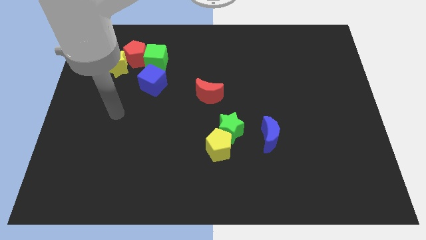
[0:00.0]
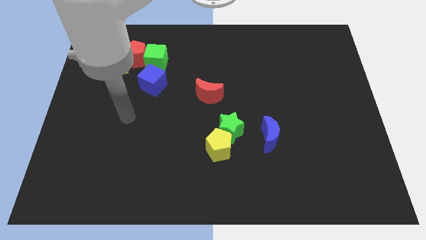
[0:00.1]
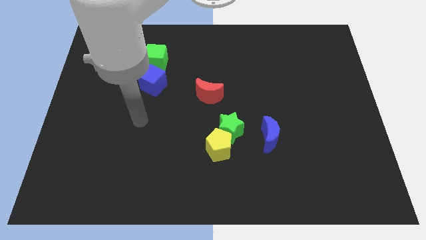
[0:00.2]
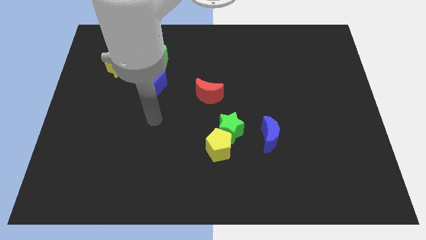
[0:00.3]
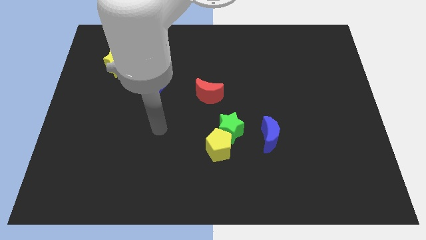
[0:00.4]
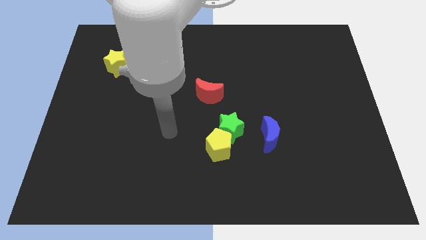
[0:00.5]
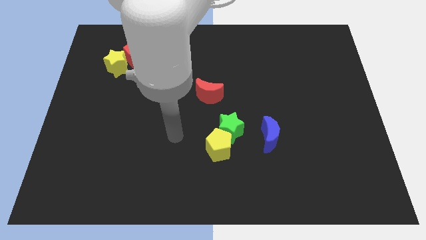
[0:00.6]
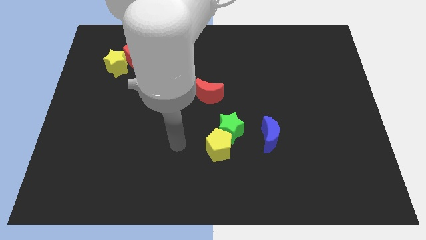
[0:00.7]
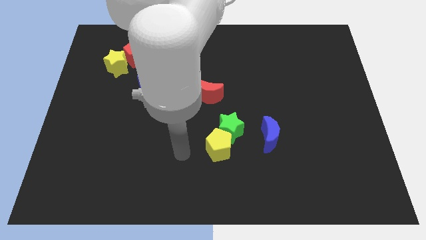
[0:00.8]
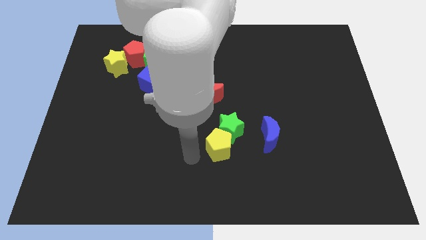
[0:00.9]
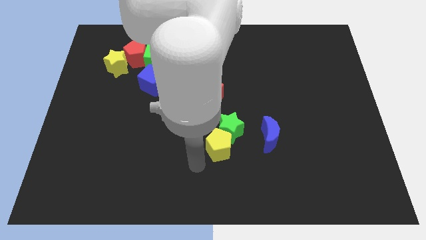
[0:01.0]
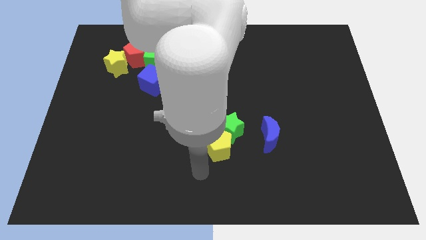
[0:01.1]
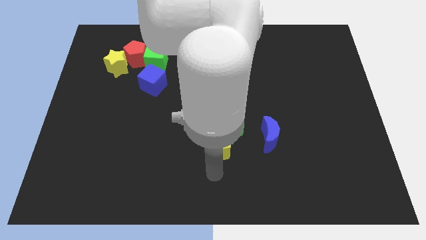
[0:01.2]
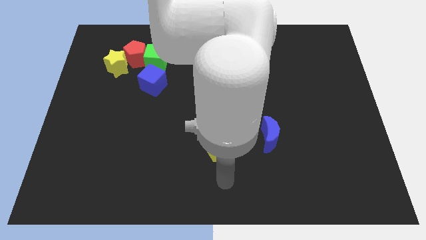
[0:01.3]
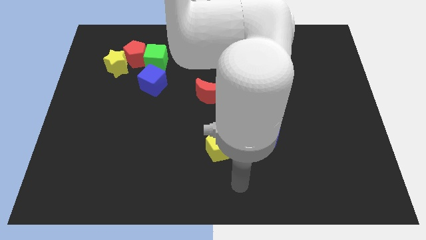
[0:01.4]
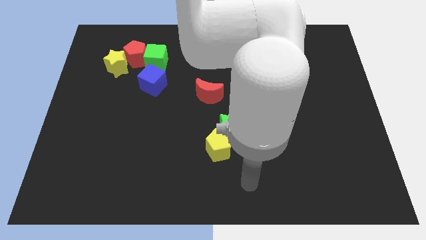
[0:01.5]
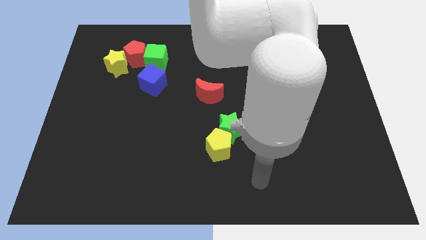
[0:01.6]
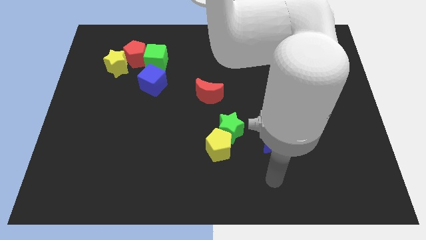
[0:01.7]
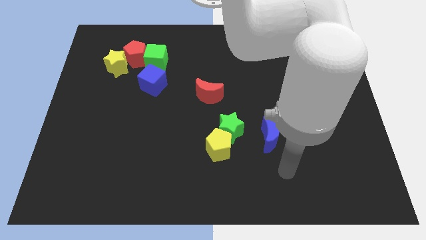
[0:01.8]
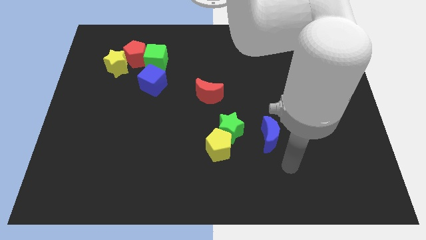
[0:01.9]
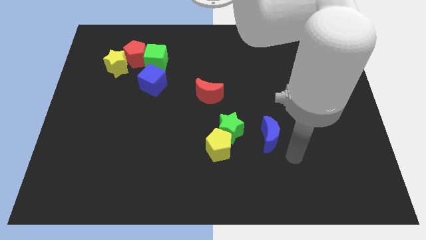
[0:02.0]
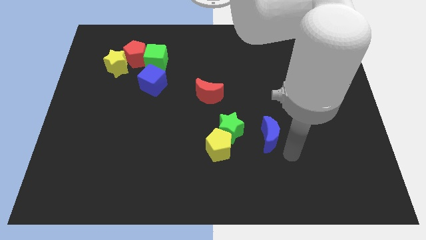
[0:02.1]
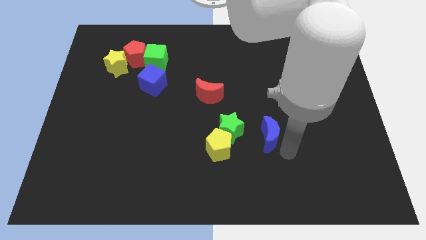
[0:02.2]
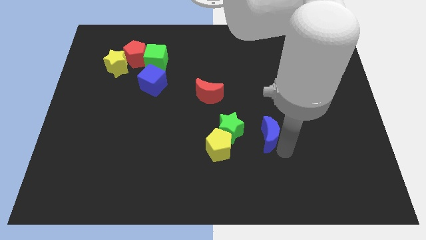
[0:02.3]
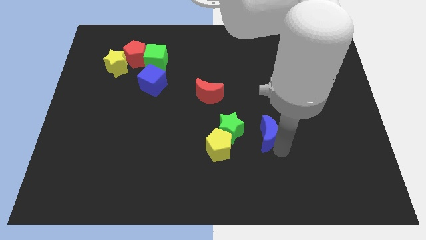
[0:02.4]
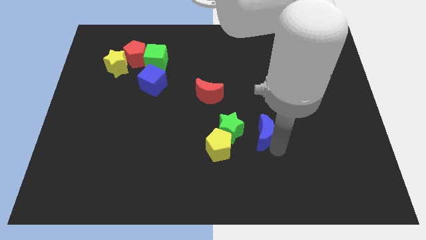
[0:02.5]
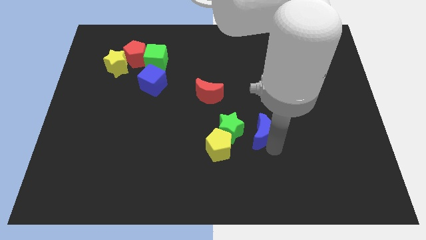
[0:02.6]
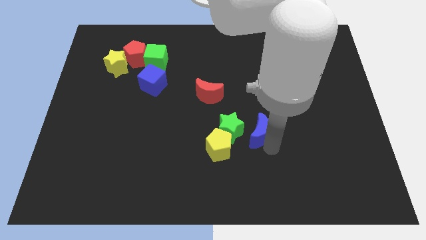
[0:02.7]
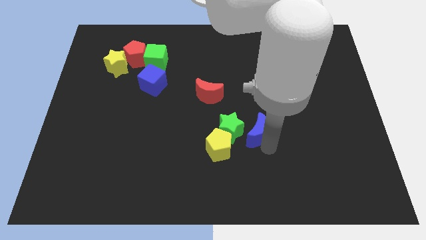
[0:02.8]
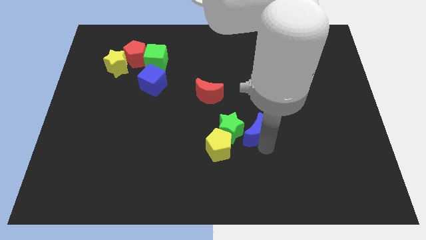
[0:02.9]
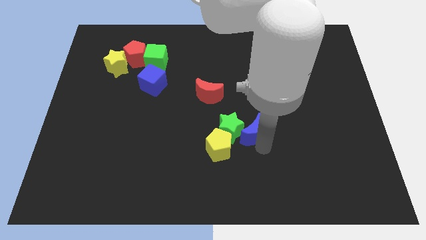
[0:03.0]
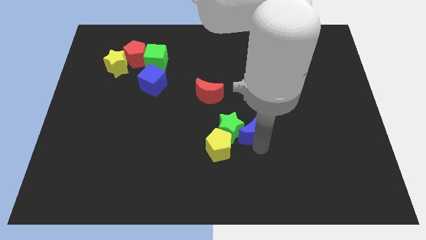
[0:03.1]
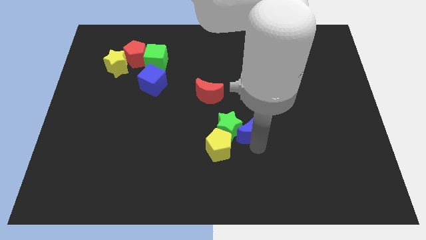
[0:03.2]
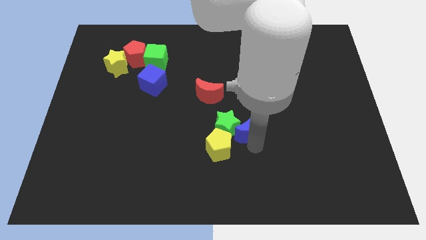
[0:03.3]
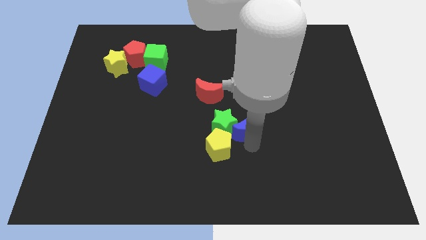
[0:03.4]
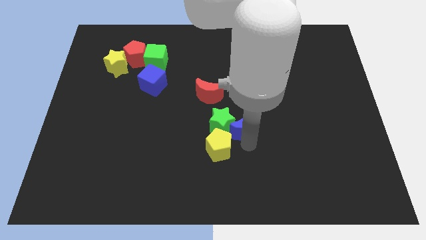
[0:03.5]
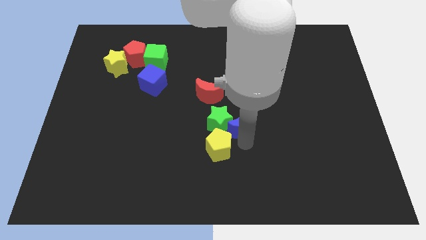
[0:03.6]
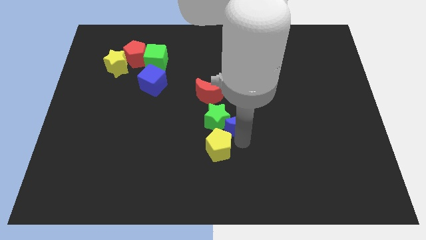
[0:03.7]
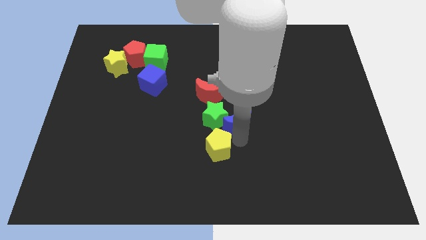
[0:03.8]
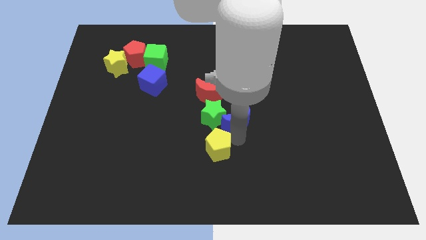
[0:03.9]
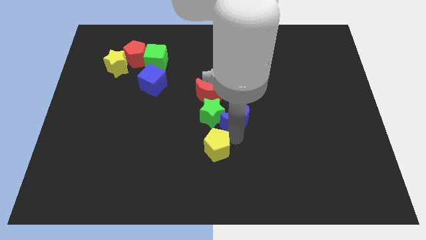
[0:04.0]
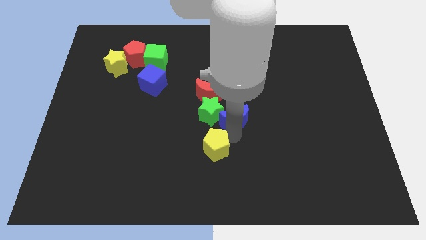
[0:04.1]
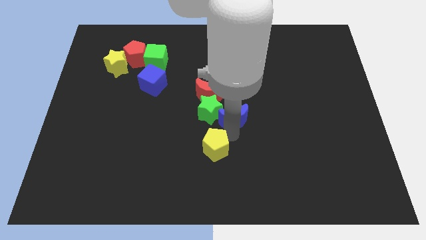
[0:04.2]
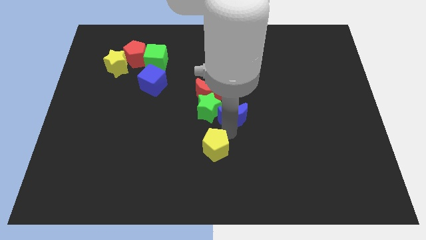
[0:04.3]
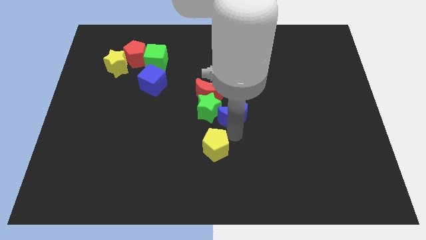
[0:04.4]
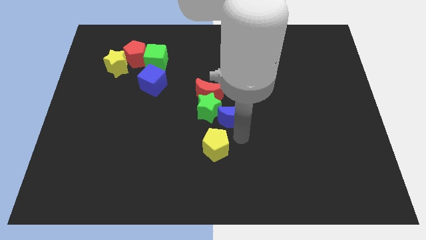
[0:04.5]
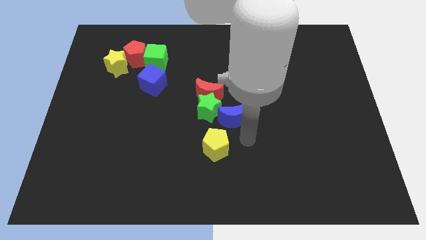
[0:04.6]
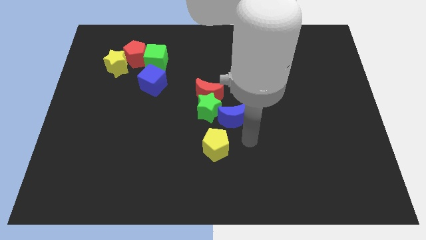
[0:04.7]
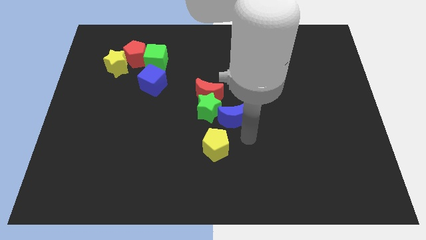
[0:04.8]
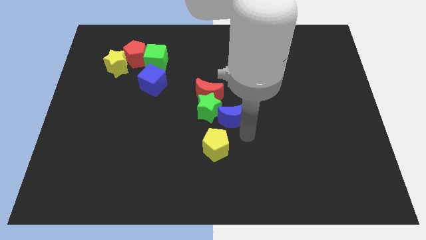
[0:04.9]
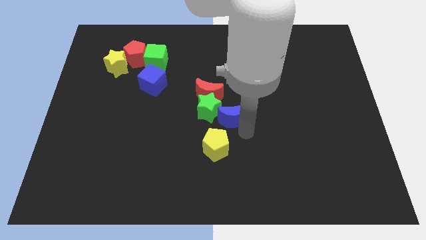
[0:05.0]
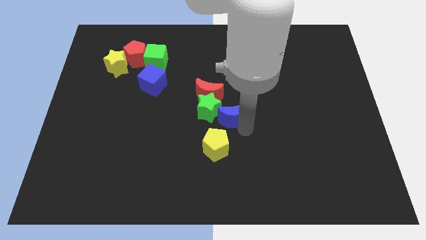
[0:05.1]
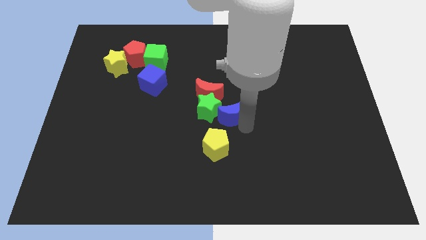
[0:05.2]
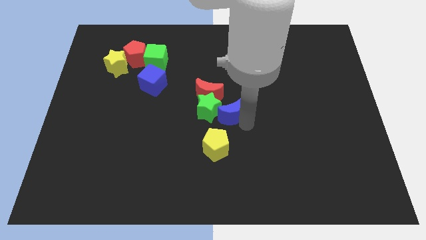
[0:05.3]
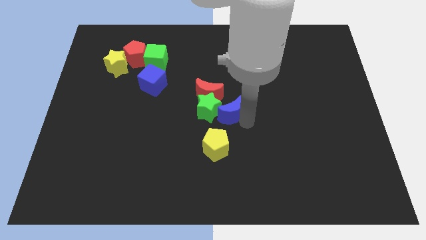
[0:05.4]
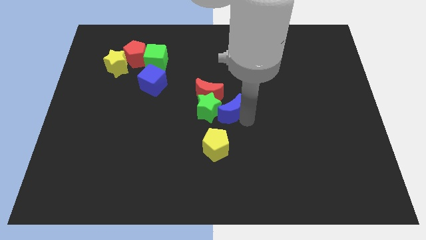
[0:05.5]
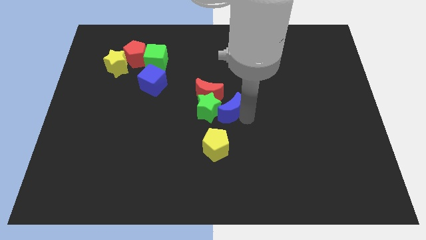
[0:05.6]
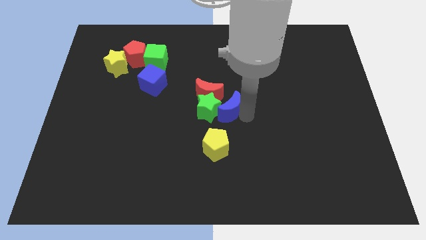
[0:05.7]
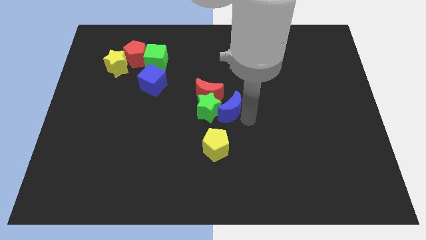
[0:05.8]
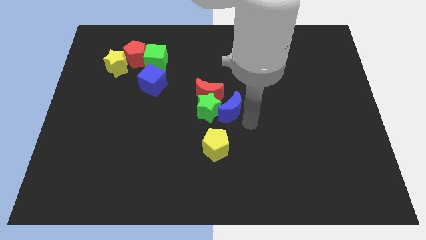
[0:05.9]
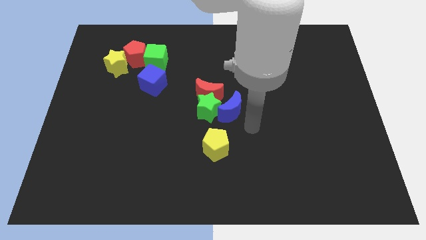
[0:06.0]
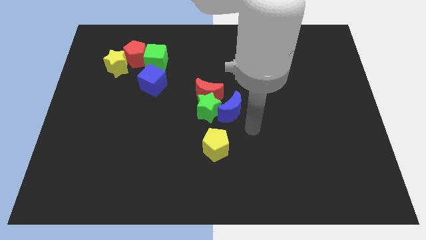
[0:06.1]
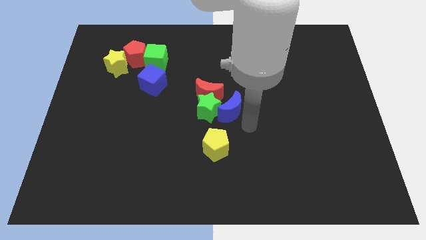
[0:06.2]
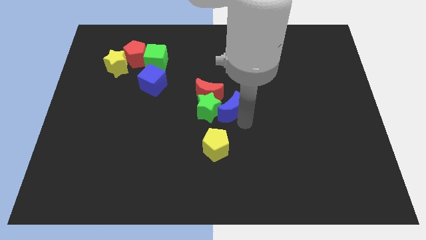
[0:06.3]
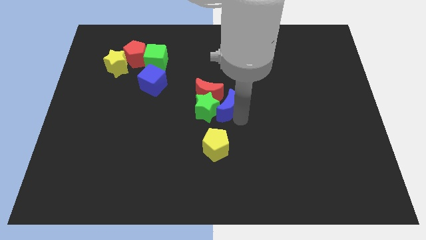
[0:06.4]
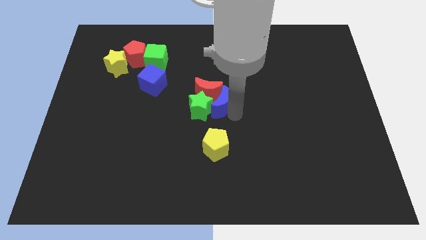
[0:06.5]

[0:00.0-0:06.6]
move the blue moon next to the red moon
